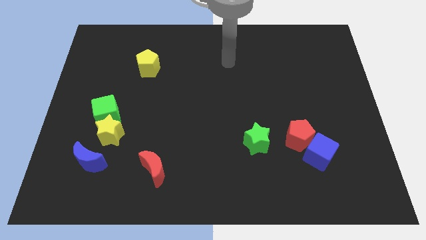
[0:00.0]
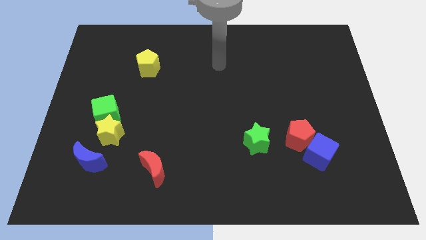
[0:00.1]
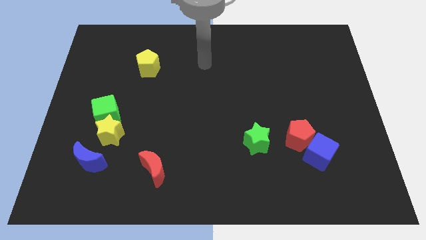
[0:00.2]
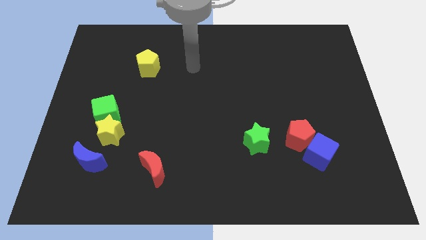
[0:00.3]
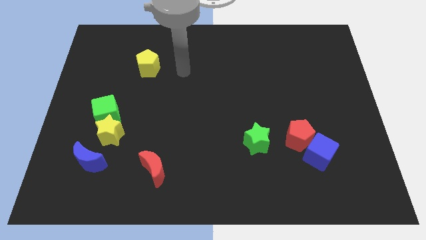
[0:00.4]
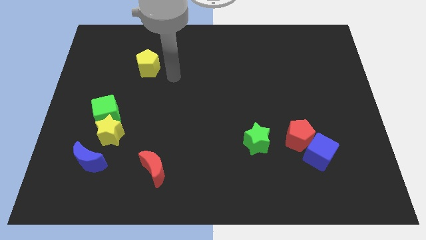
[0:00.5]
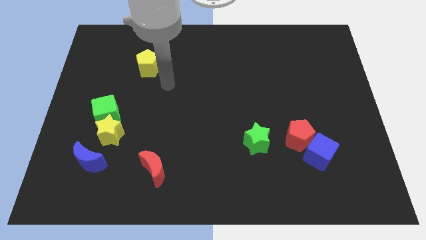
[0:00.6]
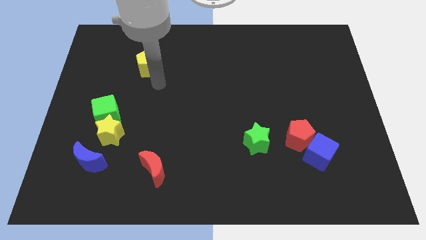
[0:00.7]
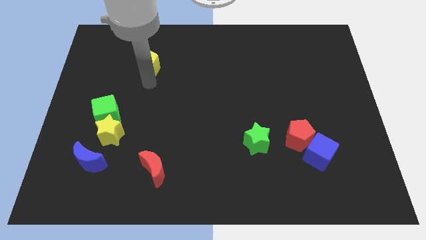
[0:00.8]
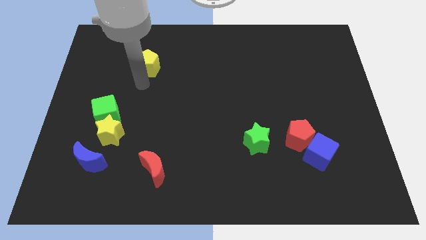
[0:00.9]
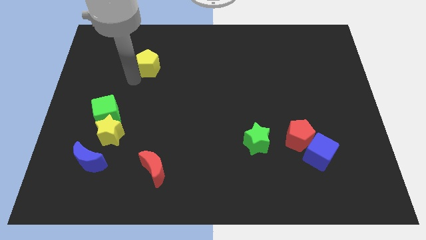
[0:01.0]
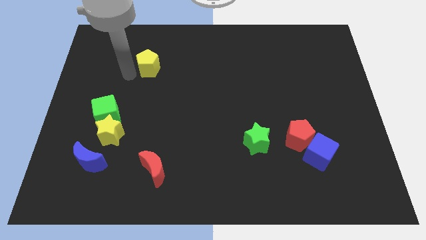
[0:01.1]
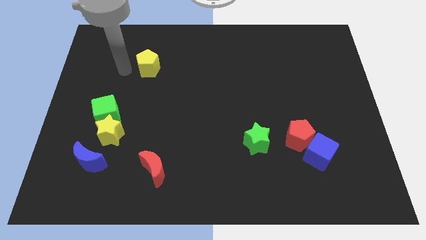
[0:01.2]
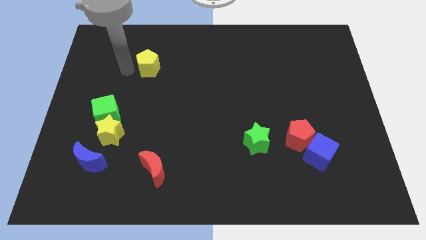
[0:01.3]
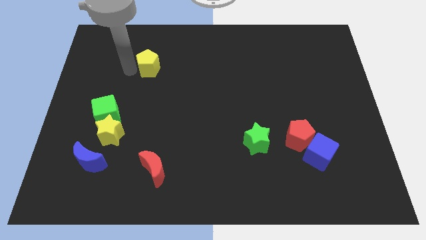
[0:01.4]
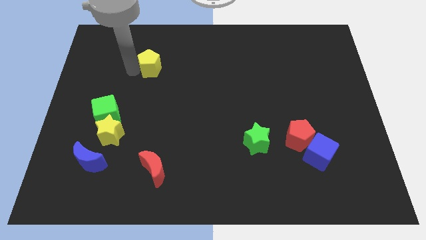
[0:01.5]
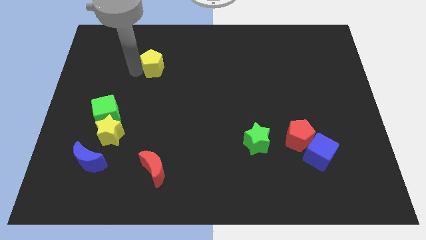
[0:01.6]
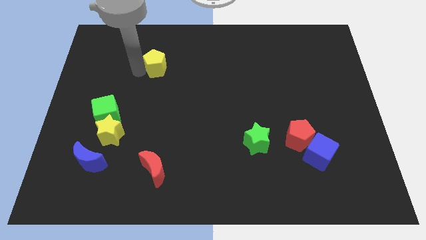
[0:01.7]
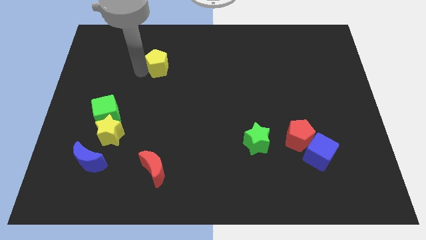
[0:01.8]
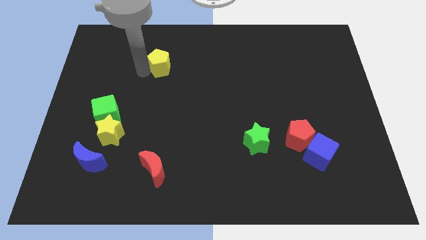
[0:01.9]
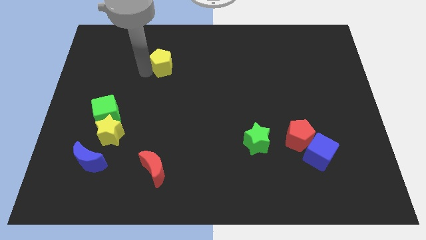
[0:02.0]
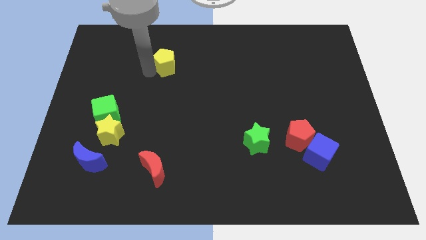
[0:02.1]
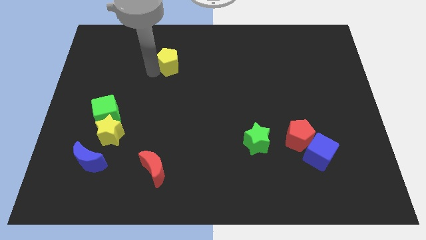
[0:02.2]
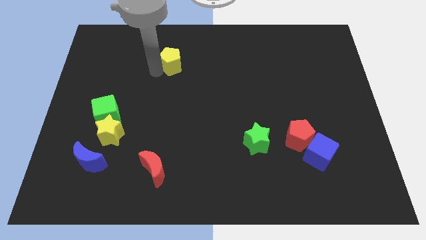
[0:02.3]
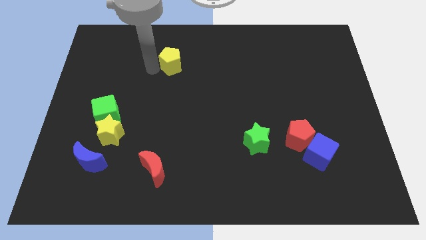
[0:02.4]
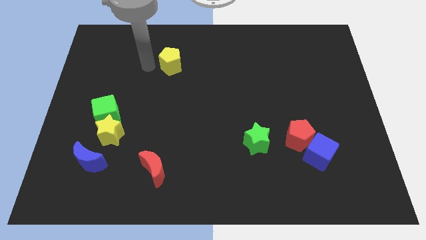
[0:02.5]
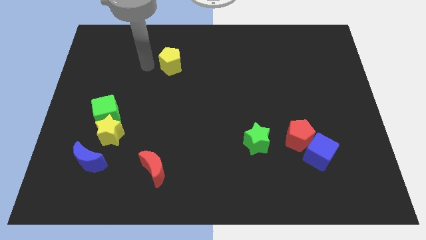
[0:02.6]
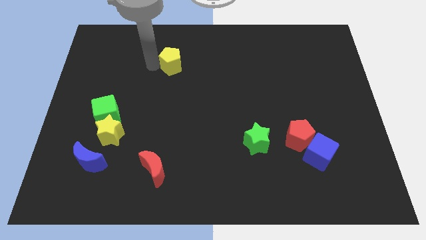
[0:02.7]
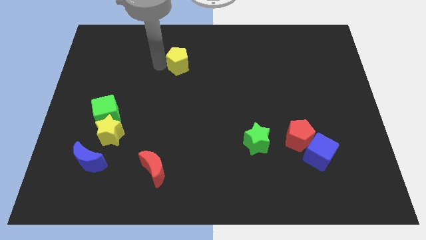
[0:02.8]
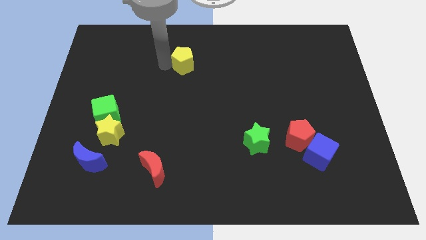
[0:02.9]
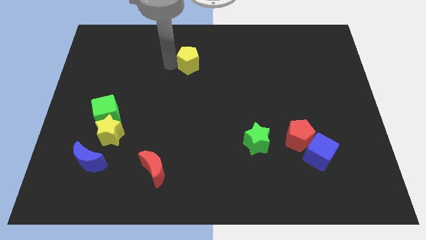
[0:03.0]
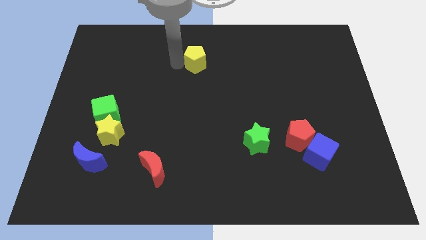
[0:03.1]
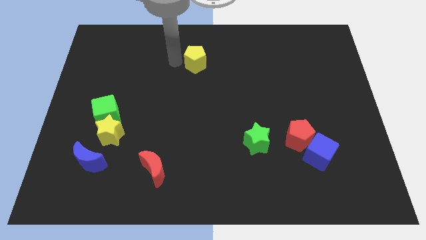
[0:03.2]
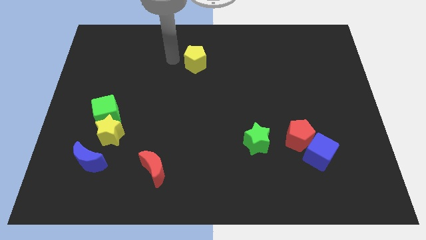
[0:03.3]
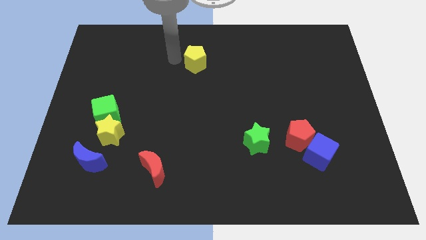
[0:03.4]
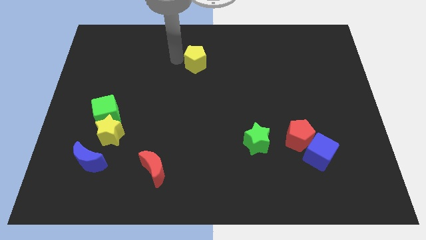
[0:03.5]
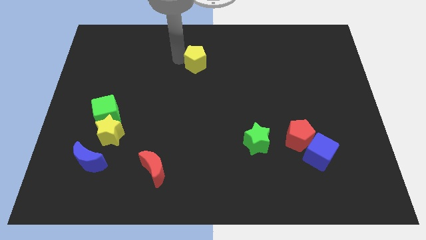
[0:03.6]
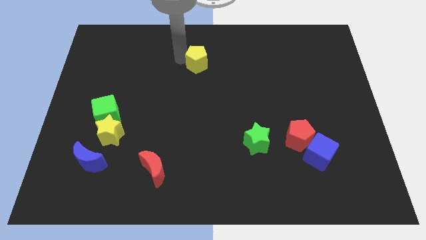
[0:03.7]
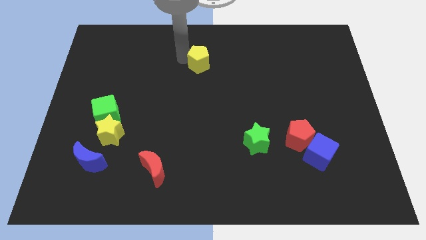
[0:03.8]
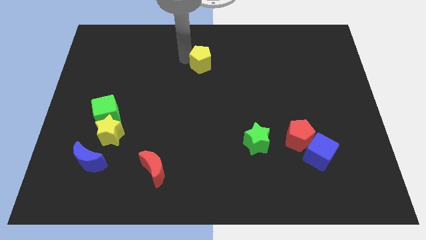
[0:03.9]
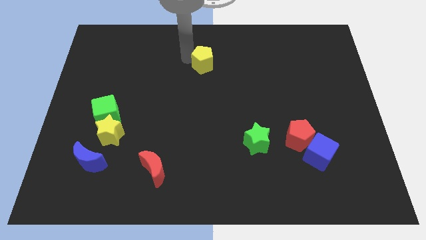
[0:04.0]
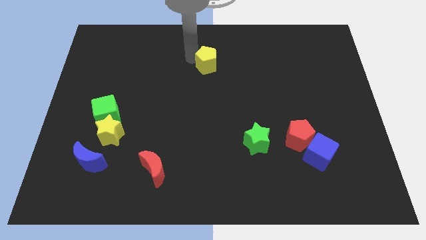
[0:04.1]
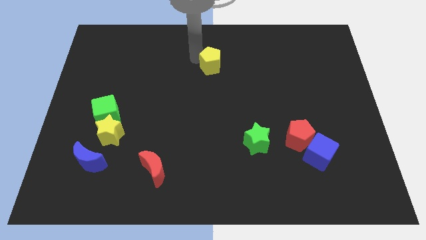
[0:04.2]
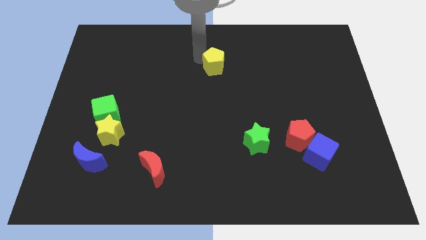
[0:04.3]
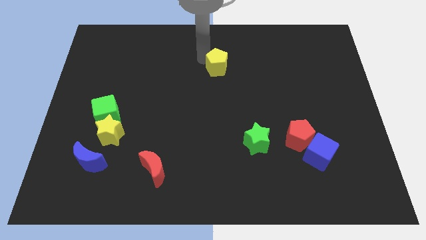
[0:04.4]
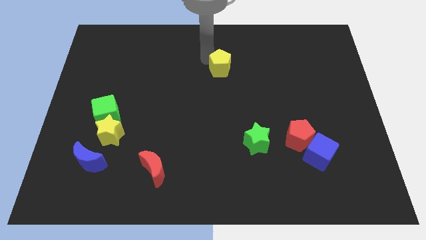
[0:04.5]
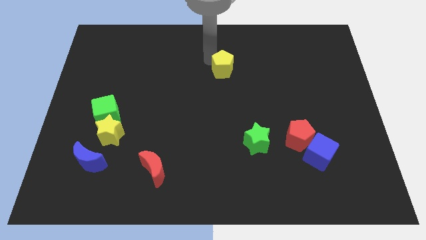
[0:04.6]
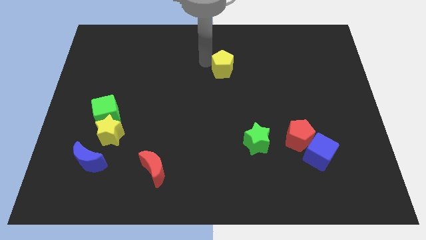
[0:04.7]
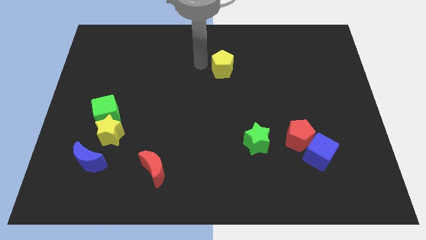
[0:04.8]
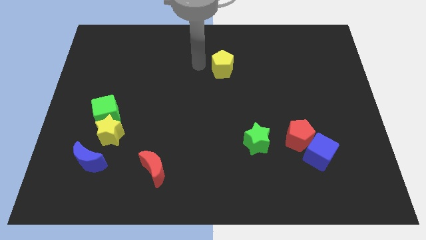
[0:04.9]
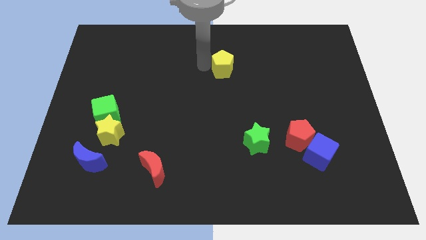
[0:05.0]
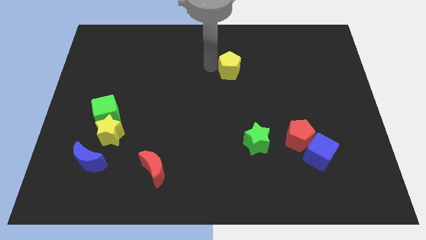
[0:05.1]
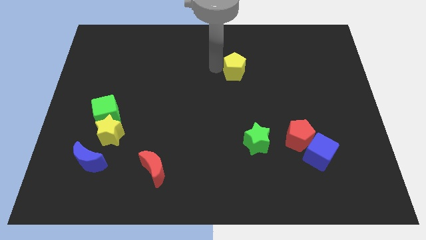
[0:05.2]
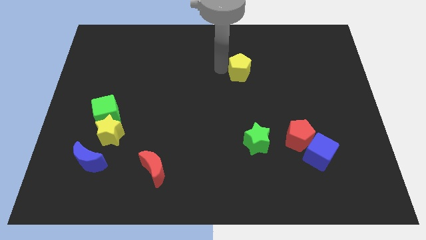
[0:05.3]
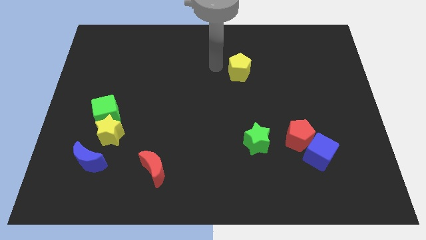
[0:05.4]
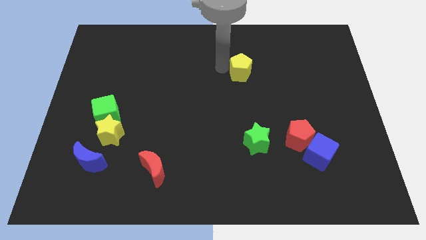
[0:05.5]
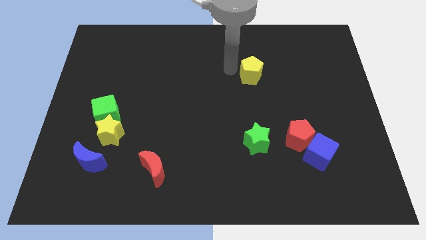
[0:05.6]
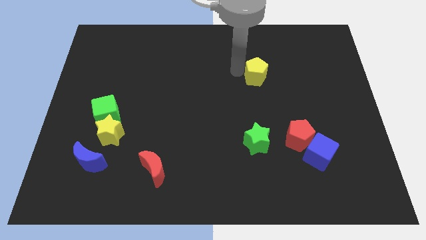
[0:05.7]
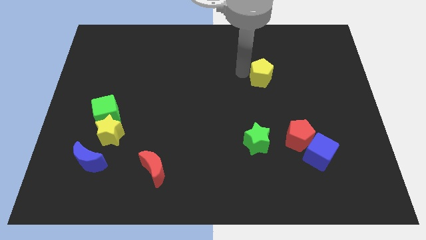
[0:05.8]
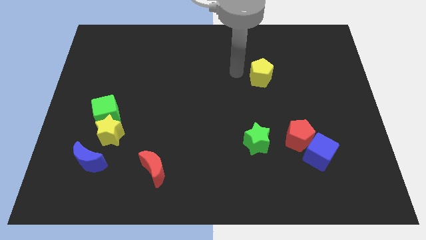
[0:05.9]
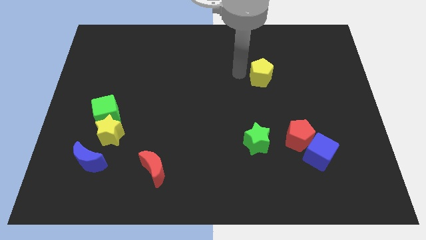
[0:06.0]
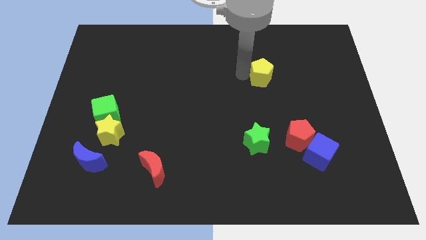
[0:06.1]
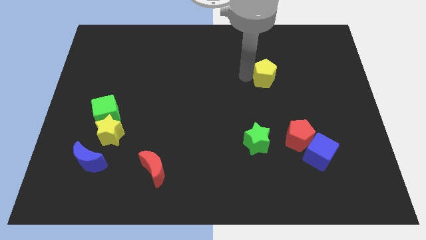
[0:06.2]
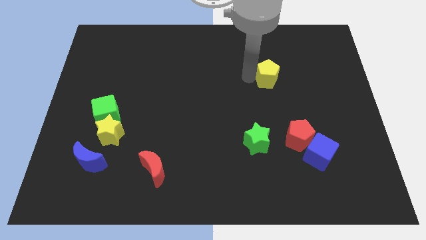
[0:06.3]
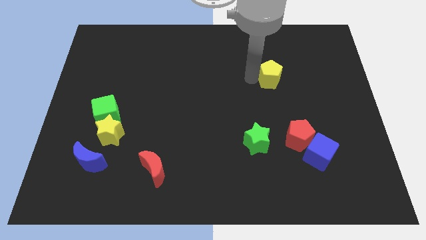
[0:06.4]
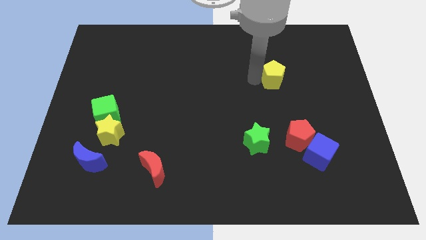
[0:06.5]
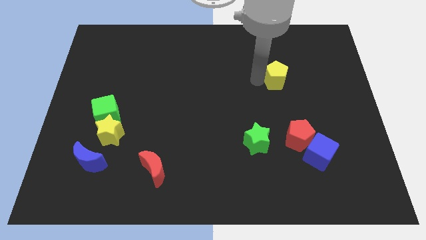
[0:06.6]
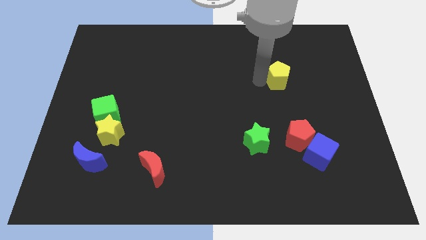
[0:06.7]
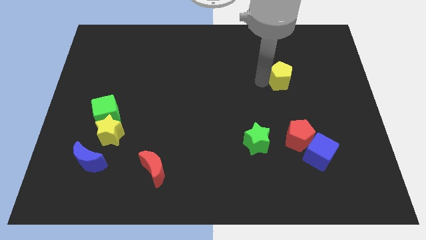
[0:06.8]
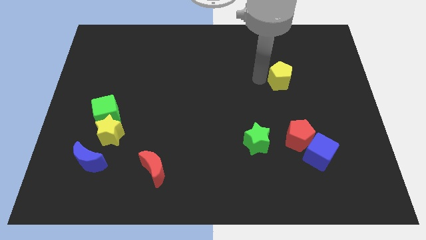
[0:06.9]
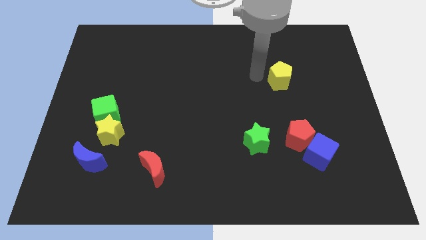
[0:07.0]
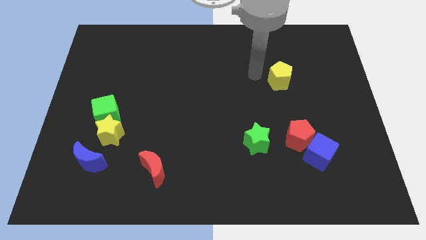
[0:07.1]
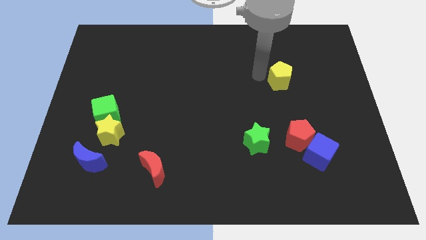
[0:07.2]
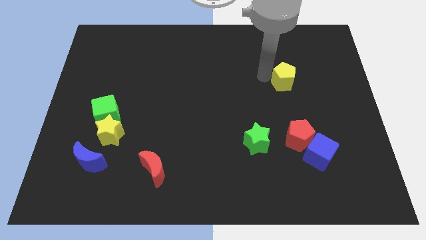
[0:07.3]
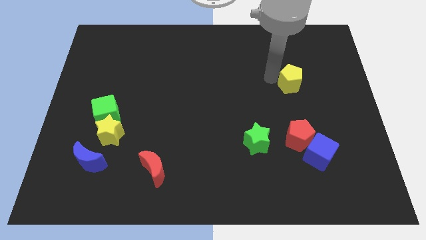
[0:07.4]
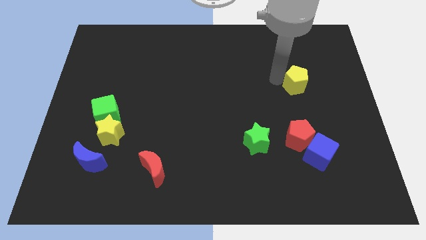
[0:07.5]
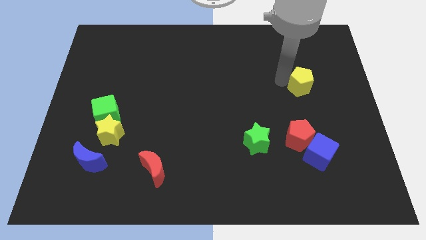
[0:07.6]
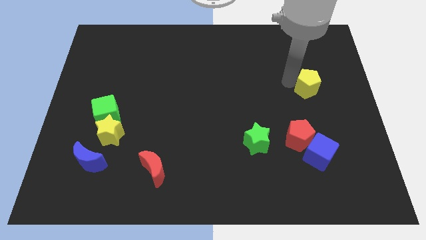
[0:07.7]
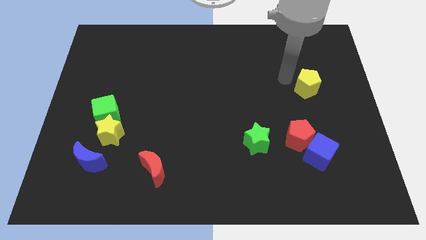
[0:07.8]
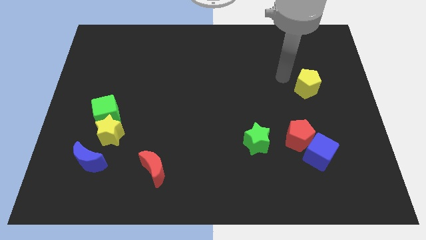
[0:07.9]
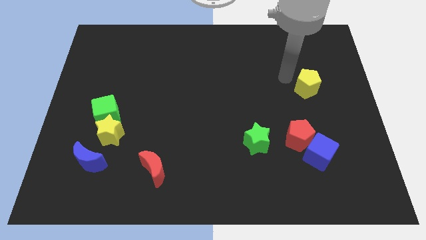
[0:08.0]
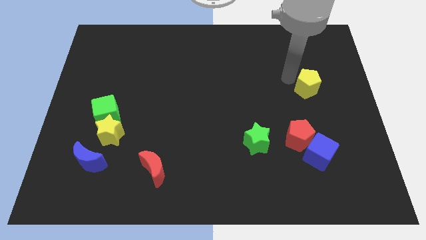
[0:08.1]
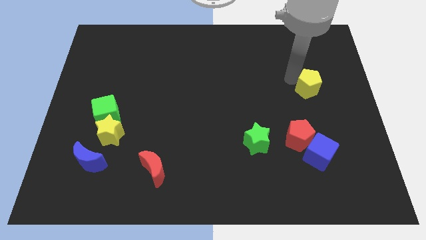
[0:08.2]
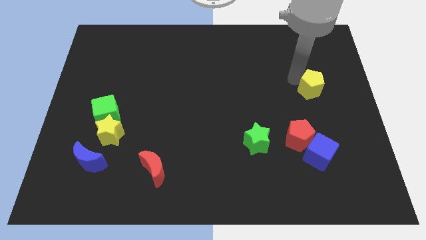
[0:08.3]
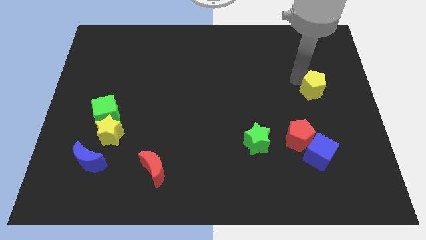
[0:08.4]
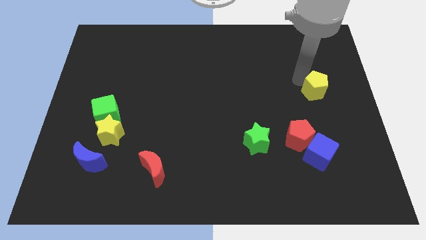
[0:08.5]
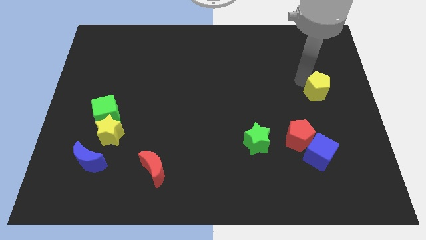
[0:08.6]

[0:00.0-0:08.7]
put the yellow pentagon to the right side of the board
